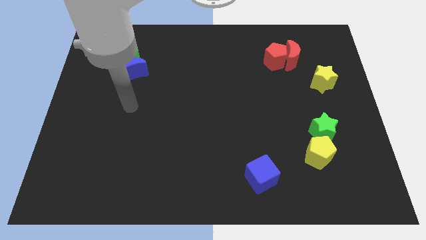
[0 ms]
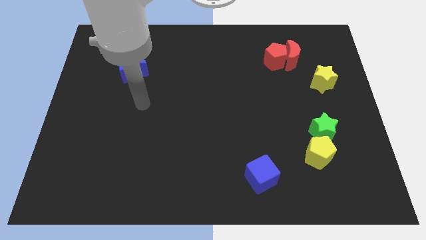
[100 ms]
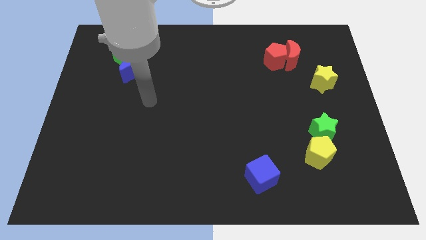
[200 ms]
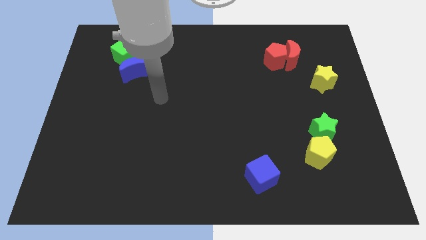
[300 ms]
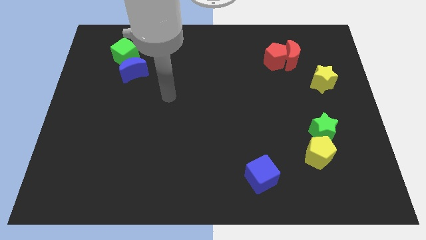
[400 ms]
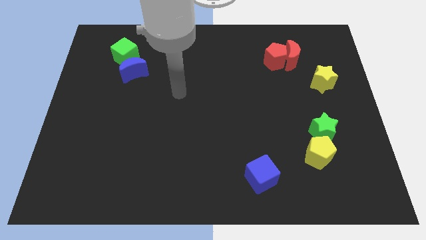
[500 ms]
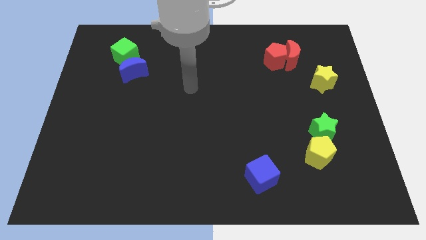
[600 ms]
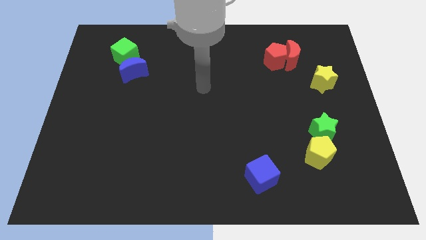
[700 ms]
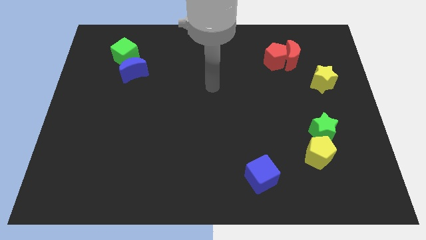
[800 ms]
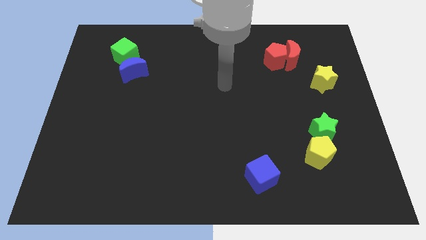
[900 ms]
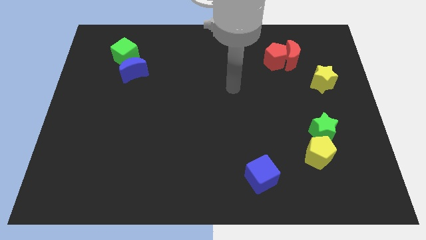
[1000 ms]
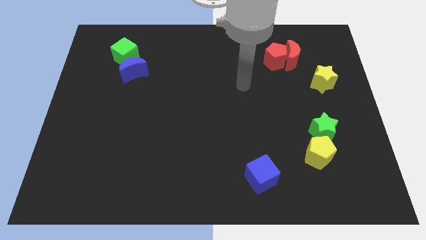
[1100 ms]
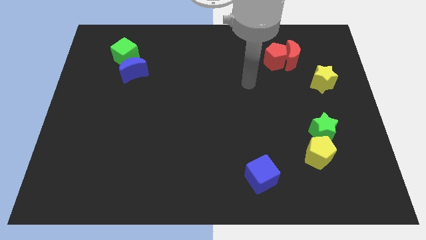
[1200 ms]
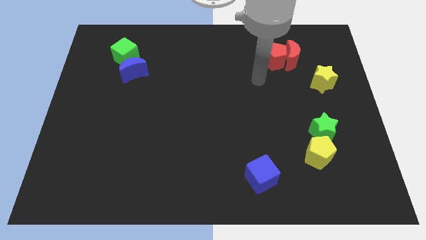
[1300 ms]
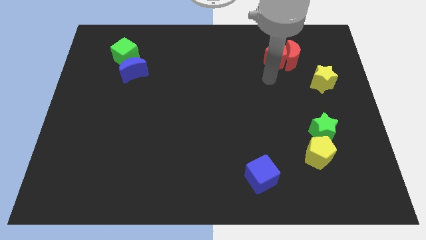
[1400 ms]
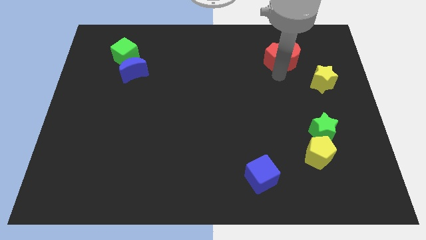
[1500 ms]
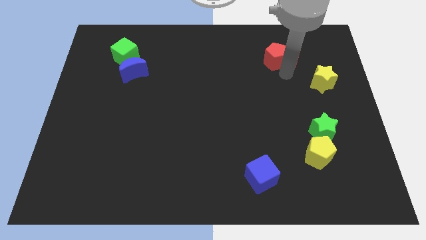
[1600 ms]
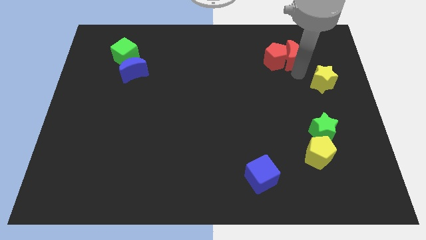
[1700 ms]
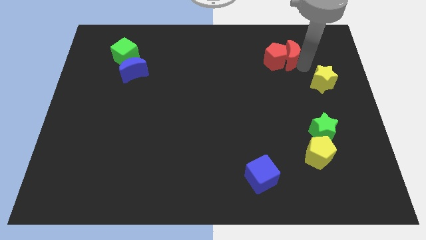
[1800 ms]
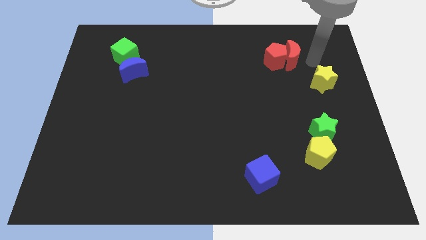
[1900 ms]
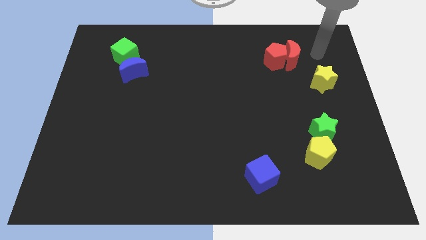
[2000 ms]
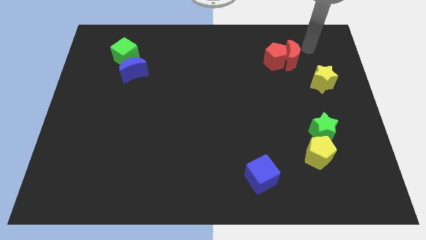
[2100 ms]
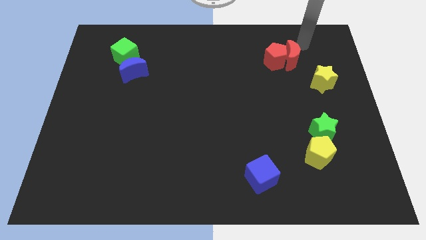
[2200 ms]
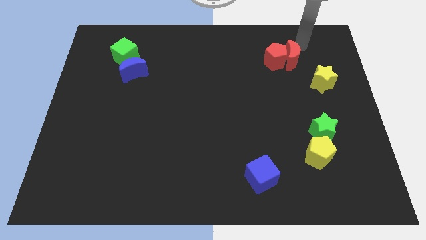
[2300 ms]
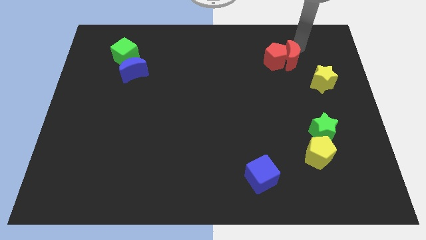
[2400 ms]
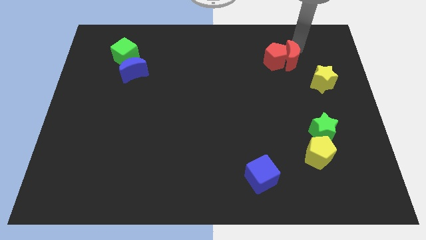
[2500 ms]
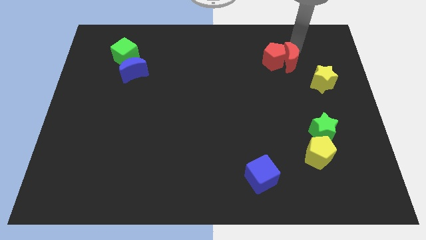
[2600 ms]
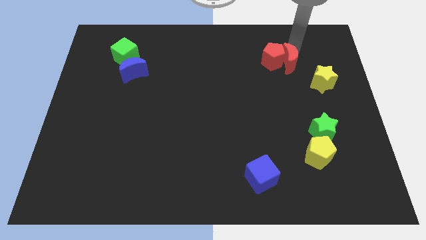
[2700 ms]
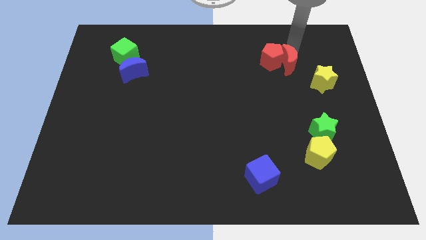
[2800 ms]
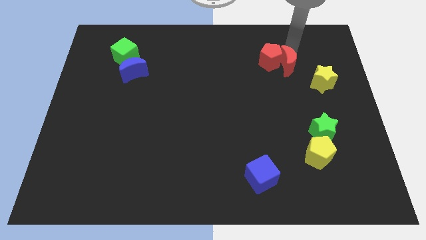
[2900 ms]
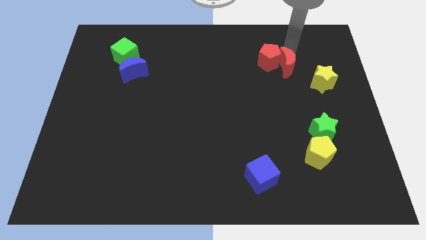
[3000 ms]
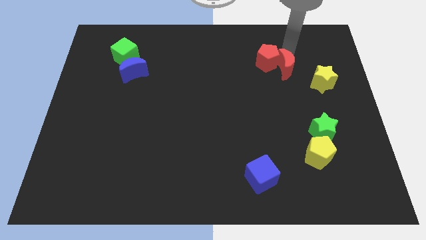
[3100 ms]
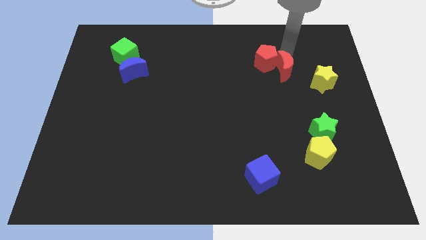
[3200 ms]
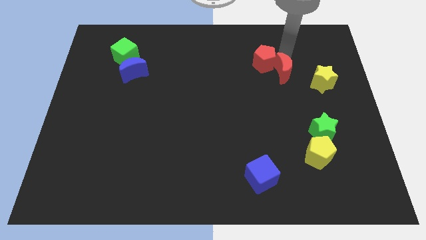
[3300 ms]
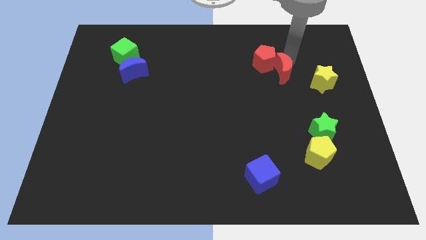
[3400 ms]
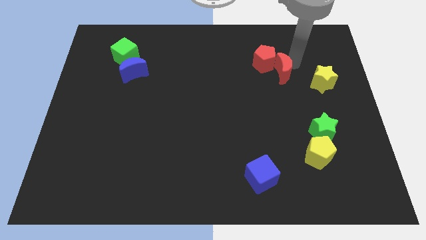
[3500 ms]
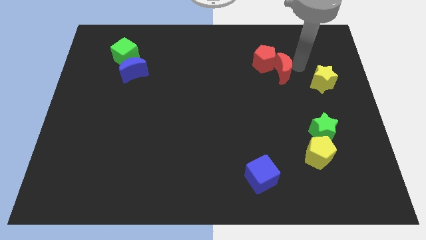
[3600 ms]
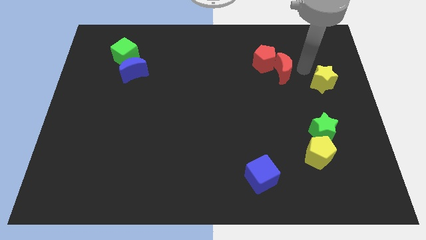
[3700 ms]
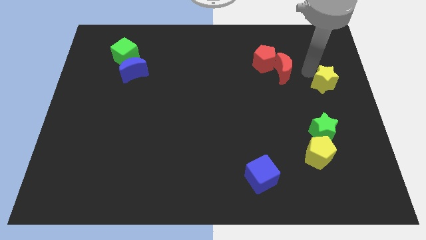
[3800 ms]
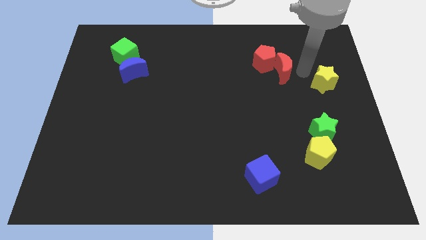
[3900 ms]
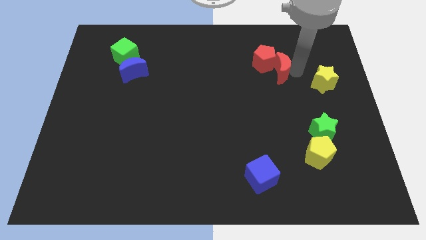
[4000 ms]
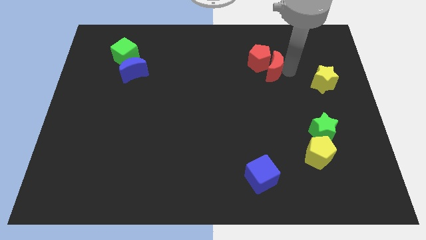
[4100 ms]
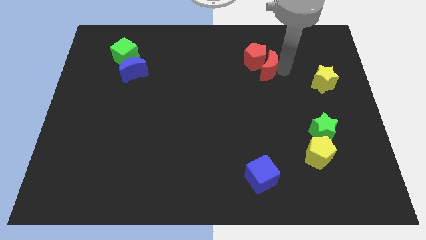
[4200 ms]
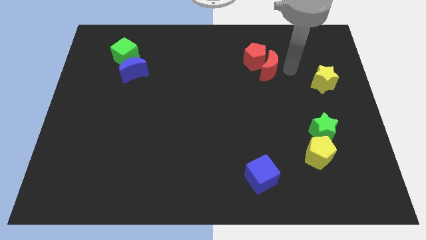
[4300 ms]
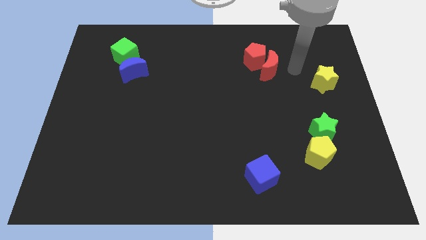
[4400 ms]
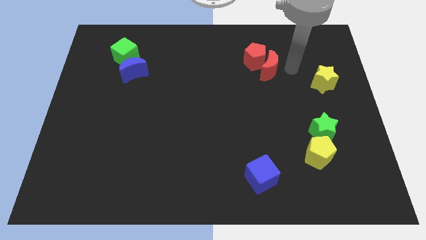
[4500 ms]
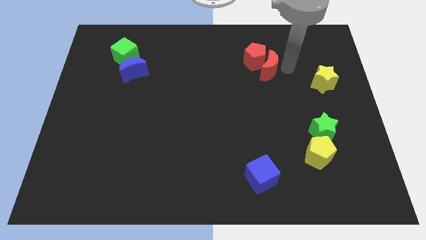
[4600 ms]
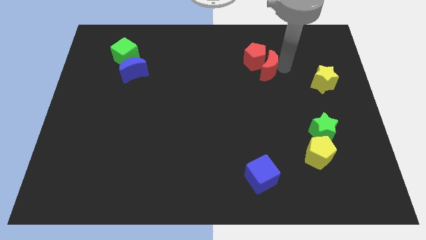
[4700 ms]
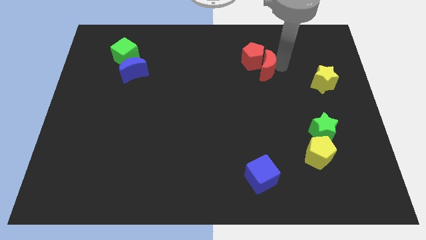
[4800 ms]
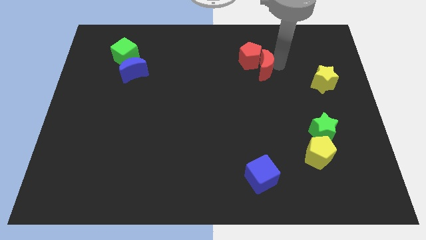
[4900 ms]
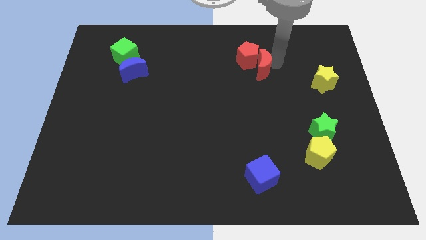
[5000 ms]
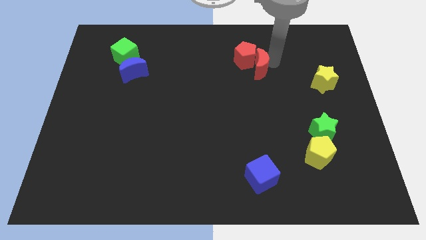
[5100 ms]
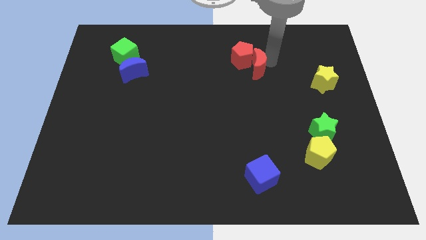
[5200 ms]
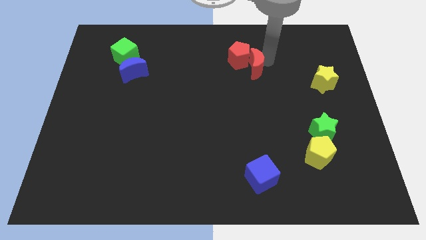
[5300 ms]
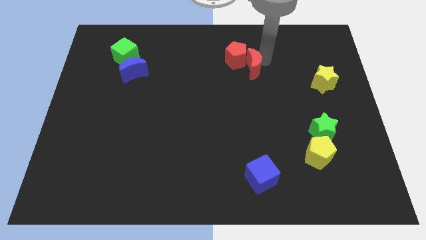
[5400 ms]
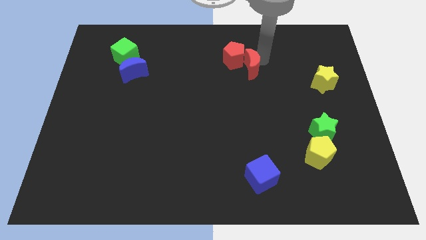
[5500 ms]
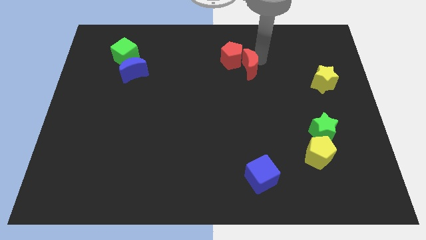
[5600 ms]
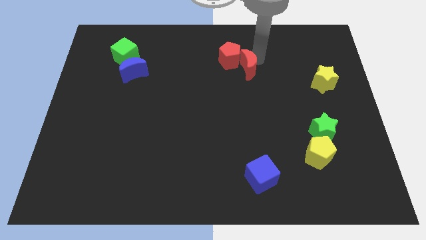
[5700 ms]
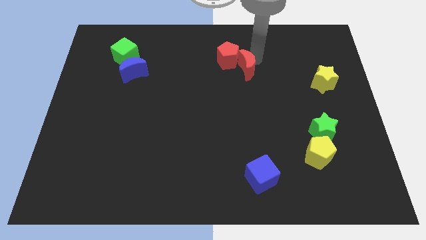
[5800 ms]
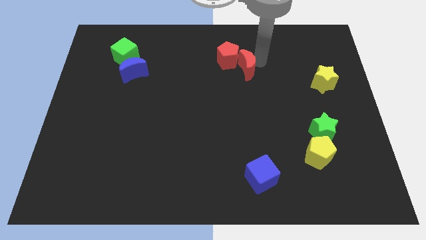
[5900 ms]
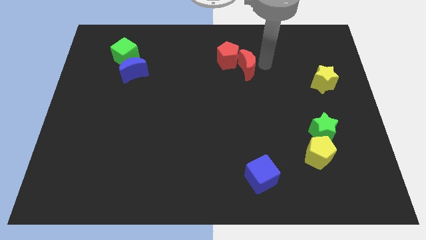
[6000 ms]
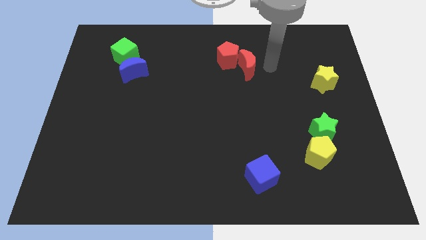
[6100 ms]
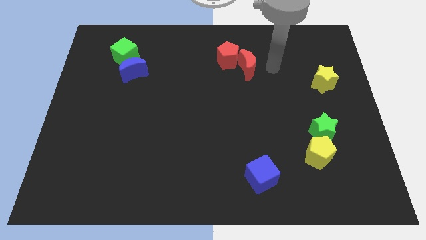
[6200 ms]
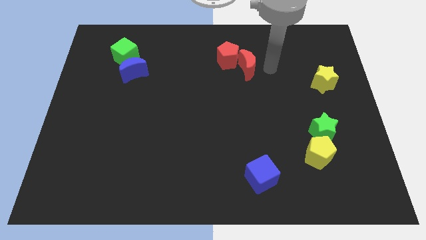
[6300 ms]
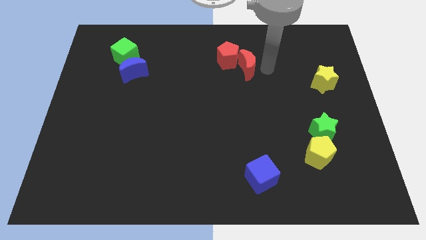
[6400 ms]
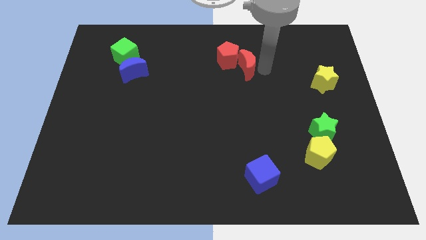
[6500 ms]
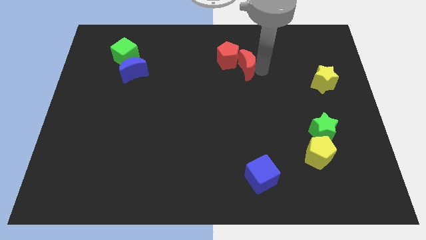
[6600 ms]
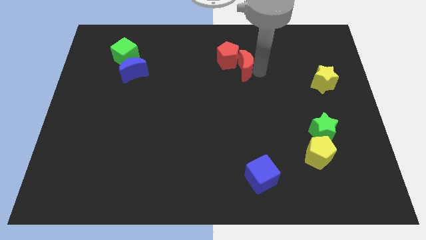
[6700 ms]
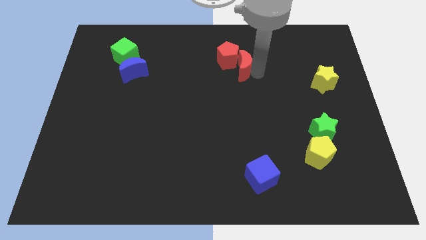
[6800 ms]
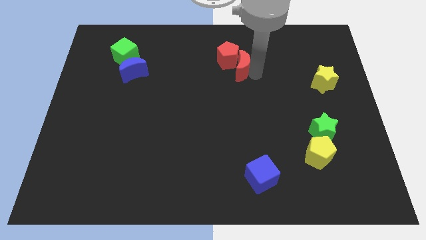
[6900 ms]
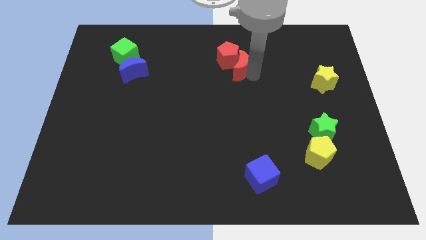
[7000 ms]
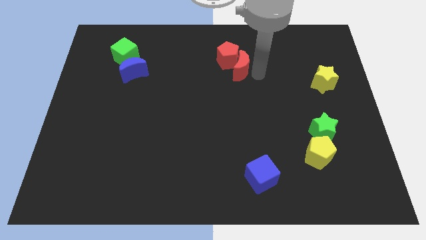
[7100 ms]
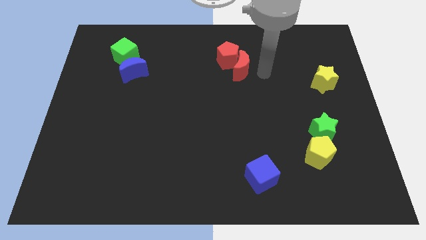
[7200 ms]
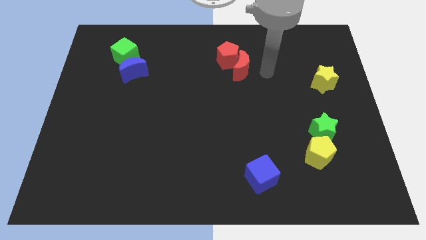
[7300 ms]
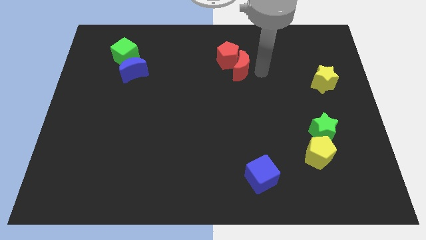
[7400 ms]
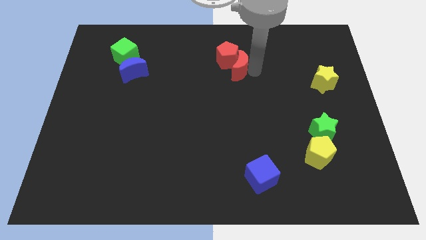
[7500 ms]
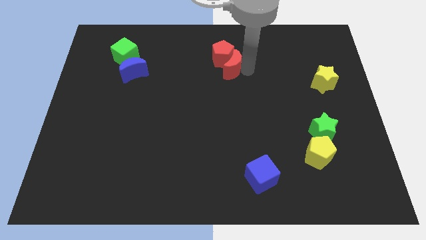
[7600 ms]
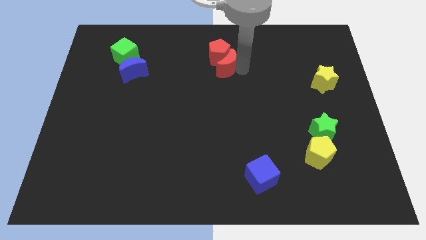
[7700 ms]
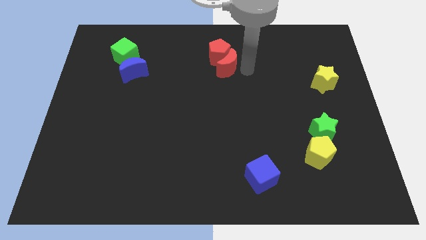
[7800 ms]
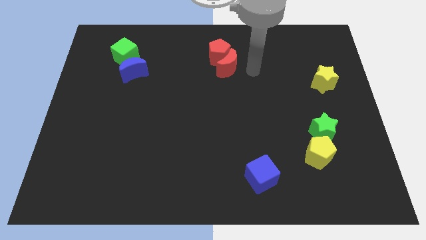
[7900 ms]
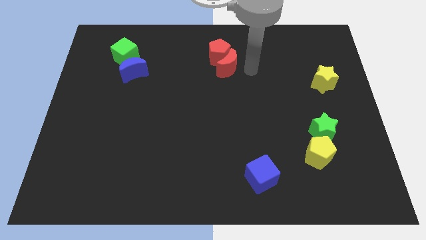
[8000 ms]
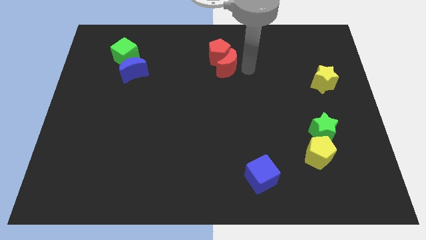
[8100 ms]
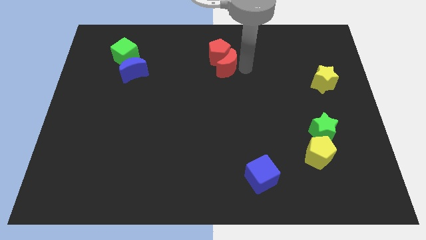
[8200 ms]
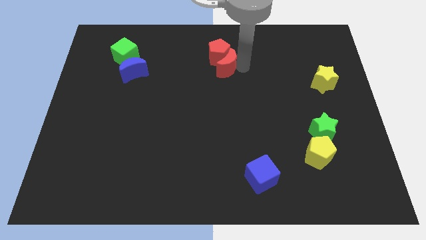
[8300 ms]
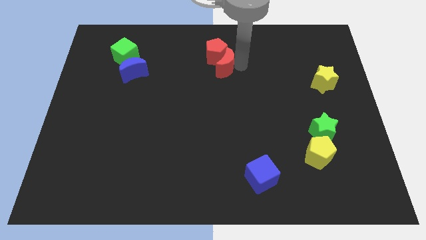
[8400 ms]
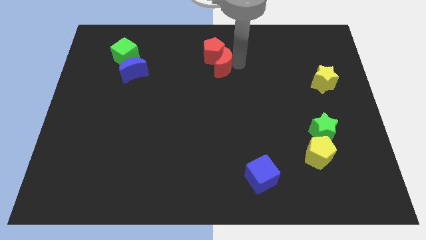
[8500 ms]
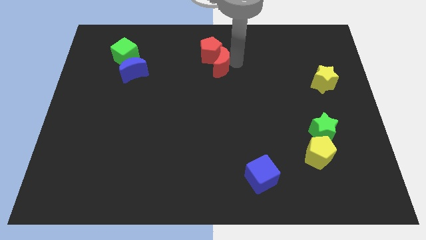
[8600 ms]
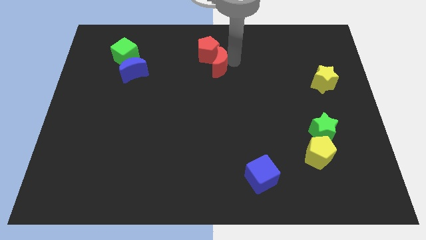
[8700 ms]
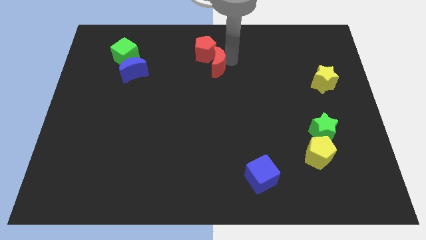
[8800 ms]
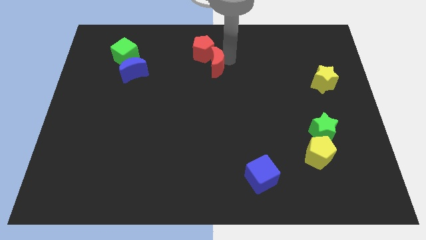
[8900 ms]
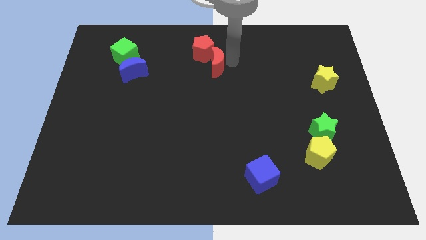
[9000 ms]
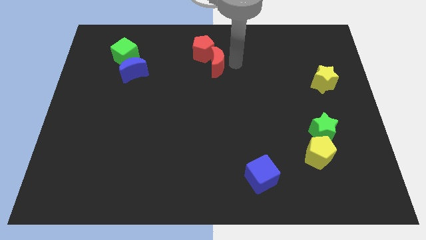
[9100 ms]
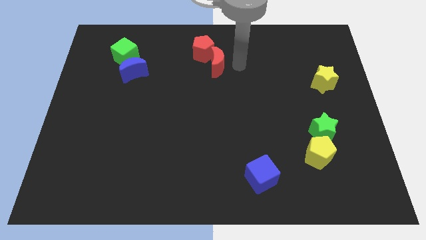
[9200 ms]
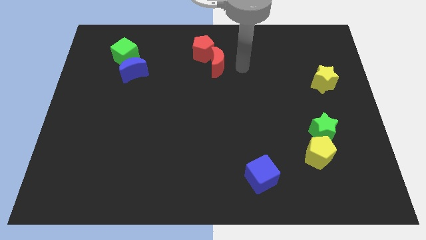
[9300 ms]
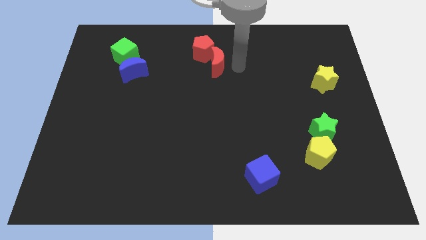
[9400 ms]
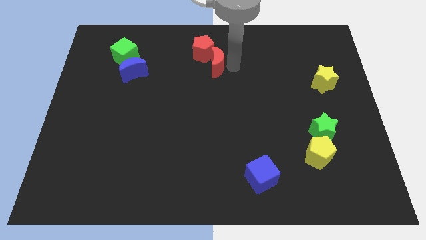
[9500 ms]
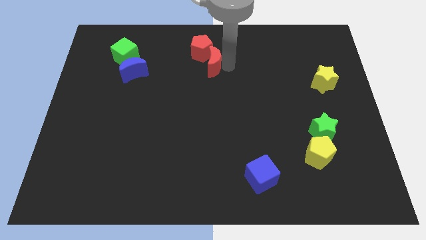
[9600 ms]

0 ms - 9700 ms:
slide the red moon to the left
